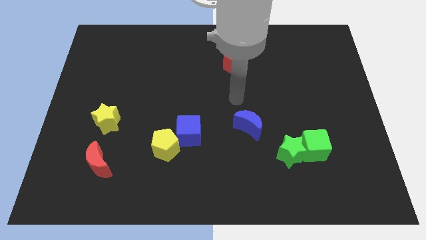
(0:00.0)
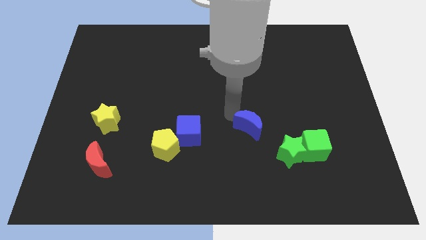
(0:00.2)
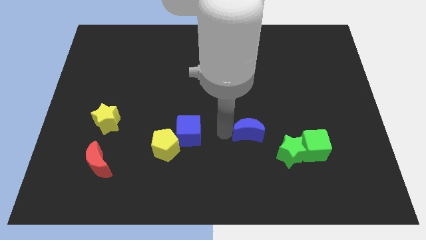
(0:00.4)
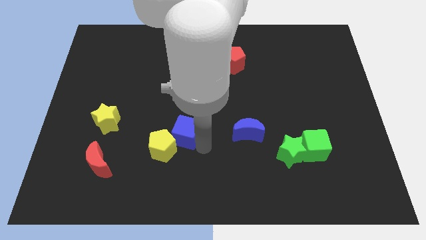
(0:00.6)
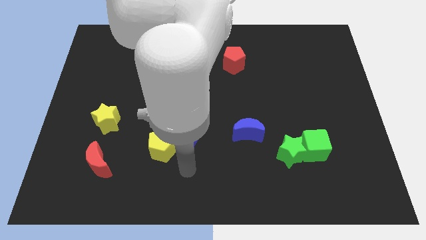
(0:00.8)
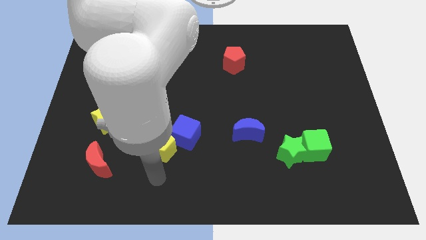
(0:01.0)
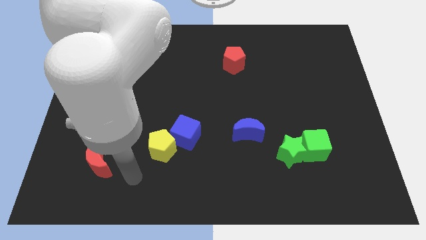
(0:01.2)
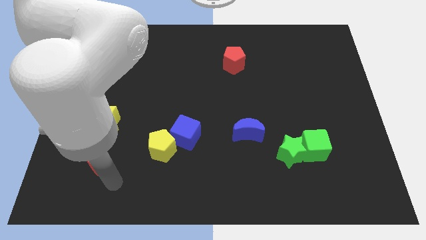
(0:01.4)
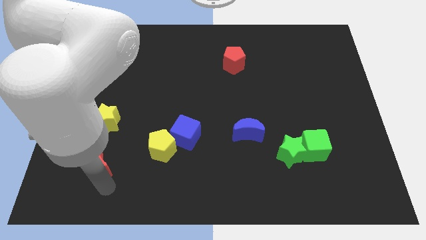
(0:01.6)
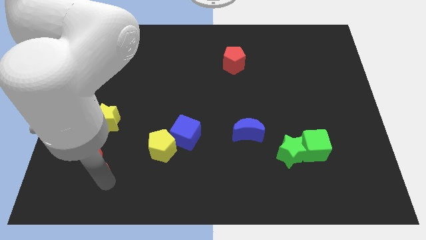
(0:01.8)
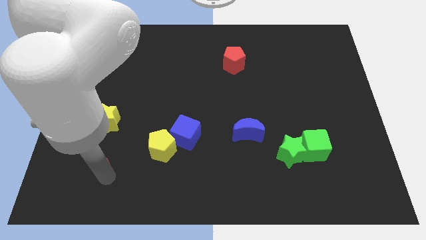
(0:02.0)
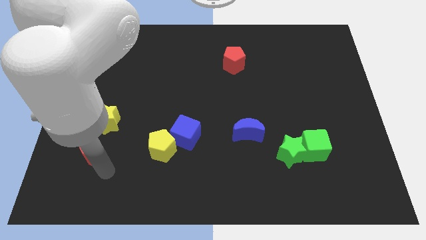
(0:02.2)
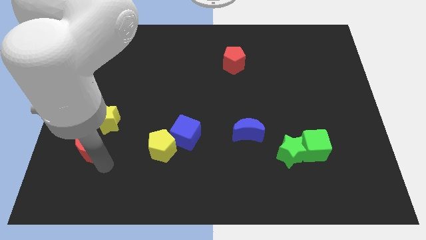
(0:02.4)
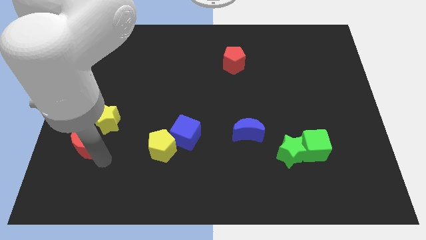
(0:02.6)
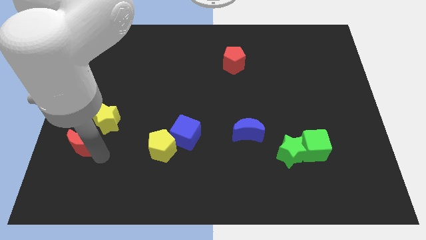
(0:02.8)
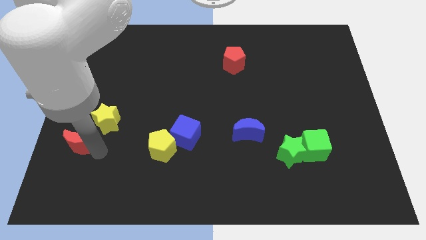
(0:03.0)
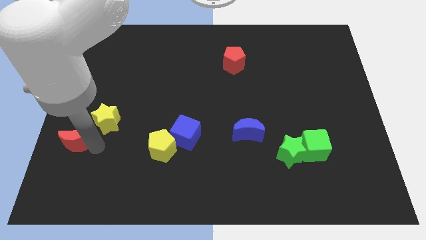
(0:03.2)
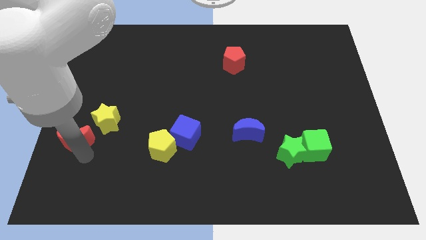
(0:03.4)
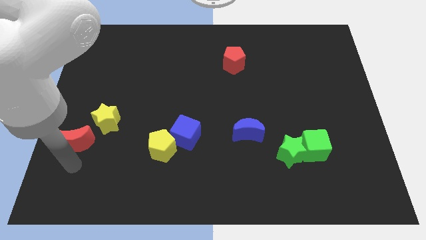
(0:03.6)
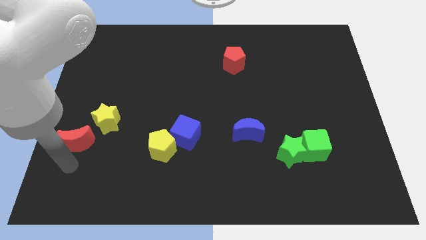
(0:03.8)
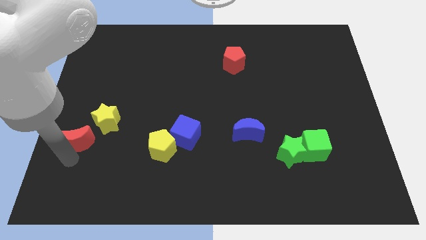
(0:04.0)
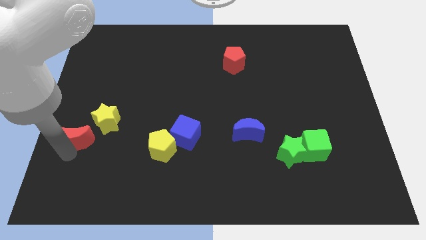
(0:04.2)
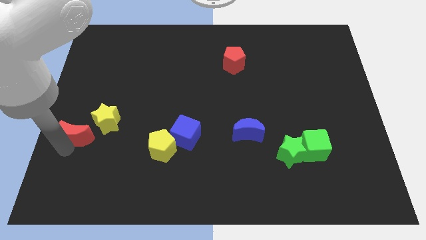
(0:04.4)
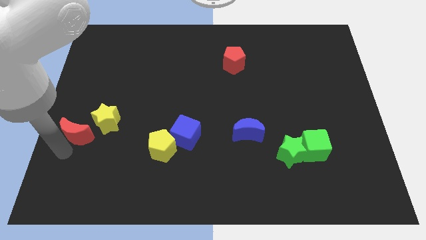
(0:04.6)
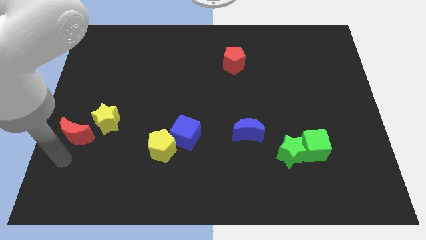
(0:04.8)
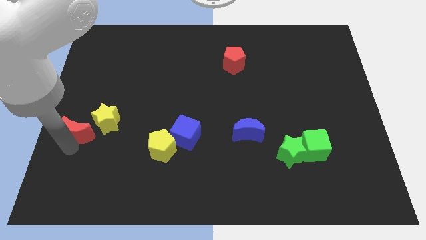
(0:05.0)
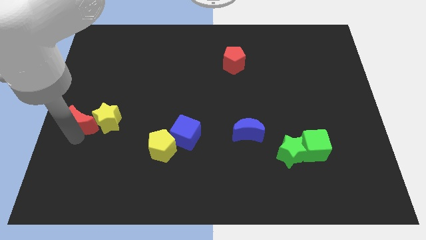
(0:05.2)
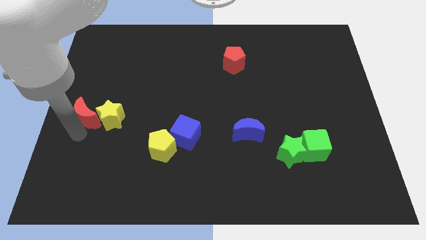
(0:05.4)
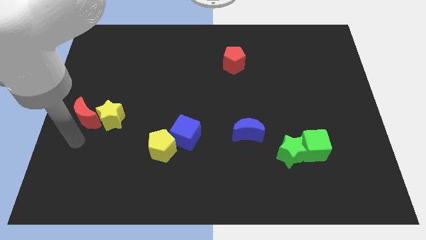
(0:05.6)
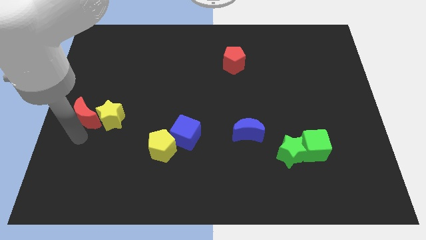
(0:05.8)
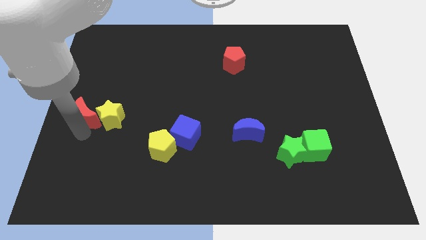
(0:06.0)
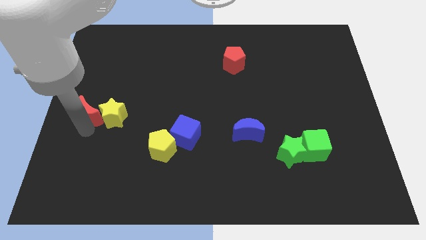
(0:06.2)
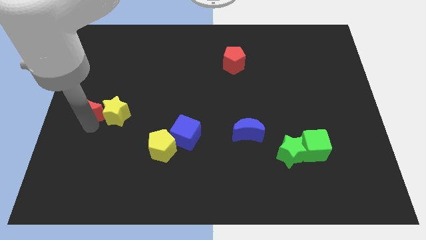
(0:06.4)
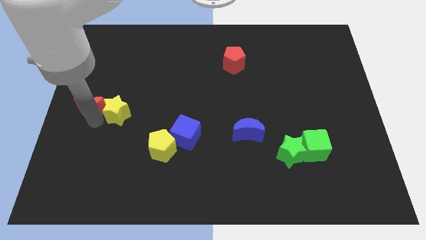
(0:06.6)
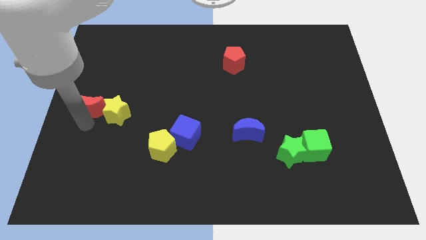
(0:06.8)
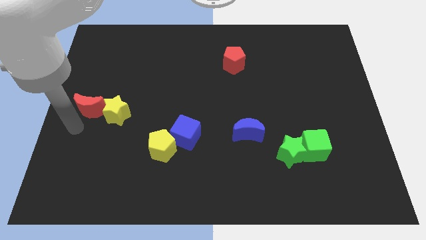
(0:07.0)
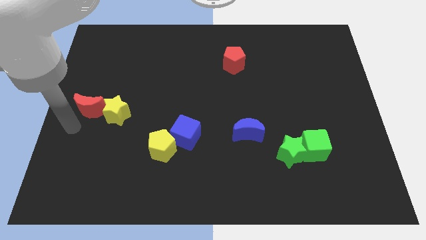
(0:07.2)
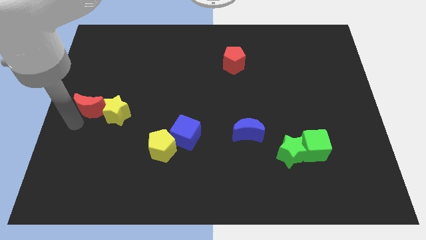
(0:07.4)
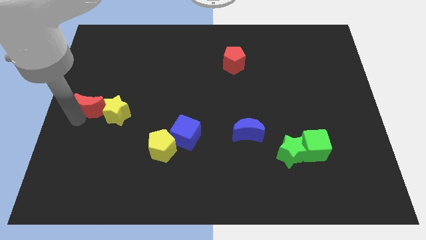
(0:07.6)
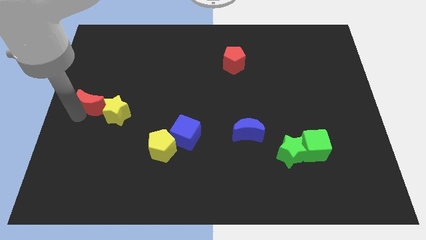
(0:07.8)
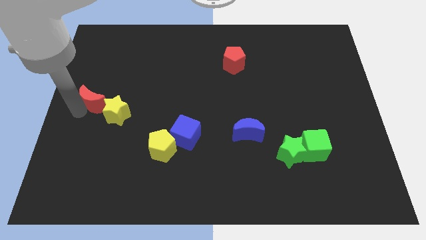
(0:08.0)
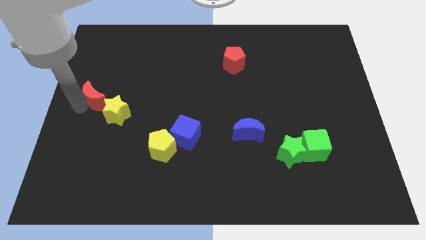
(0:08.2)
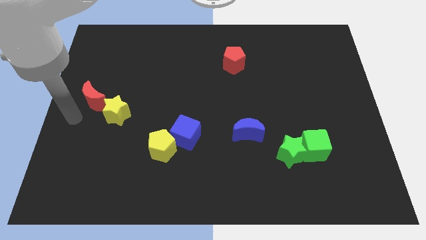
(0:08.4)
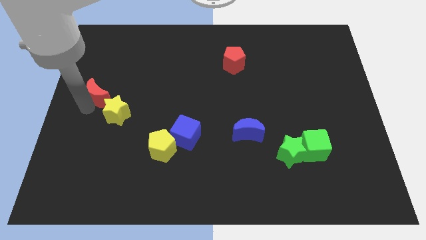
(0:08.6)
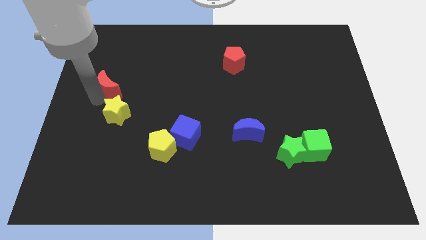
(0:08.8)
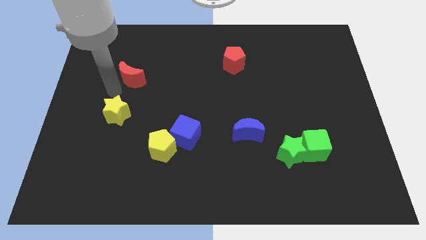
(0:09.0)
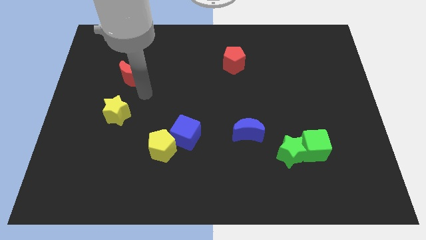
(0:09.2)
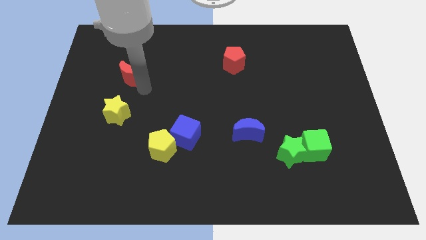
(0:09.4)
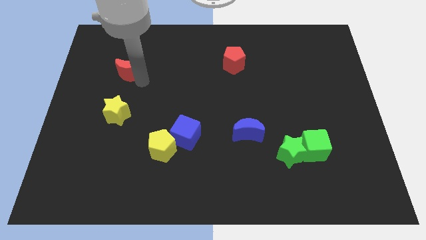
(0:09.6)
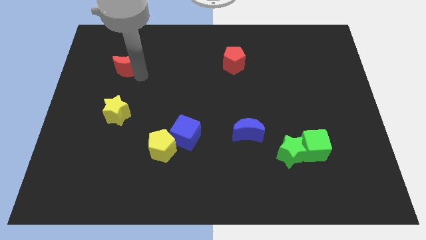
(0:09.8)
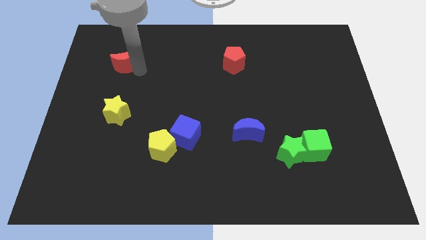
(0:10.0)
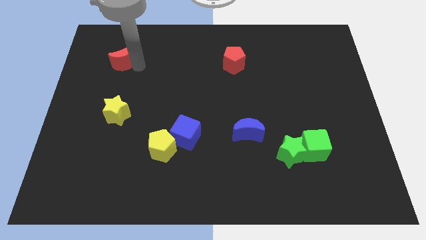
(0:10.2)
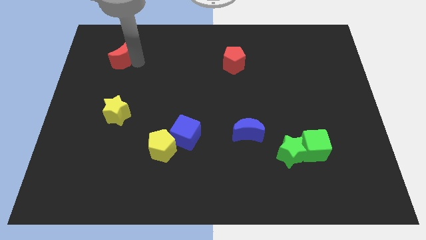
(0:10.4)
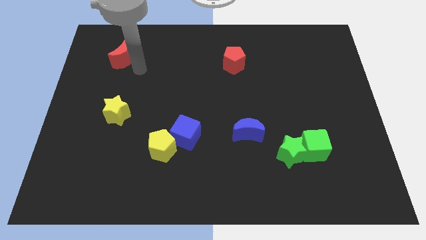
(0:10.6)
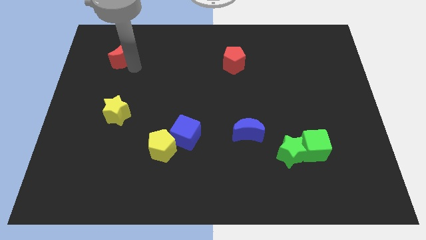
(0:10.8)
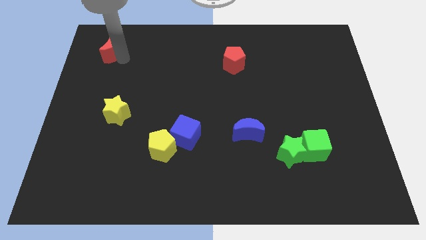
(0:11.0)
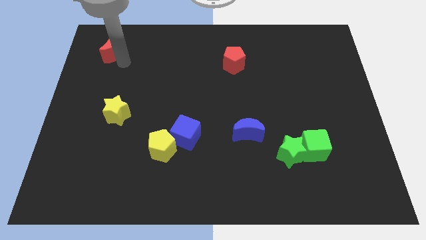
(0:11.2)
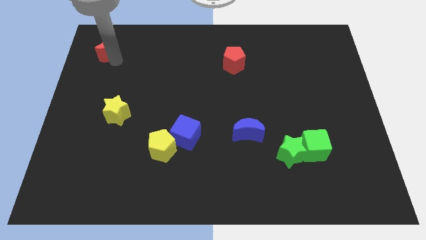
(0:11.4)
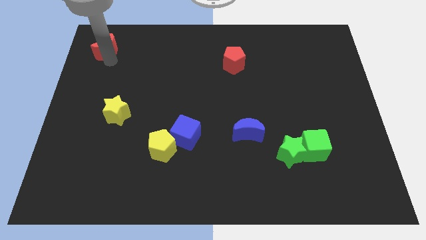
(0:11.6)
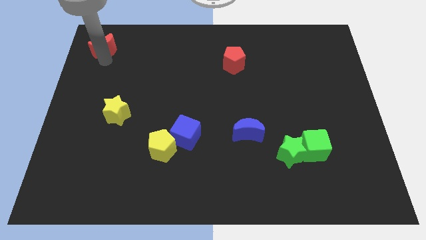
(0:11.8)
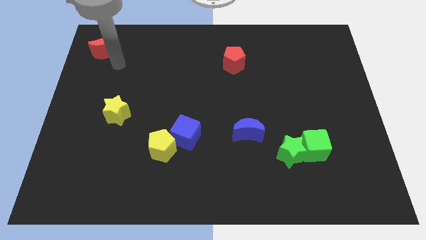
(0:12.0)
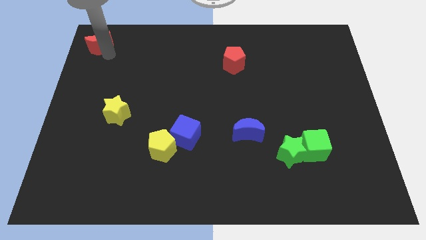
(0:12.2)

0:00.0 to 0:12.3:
slide the red moon to the upper left corner

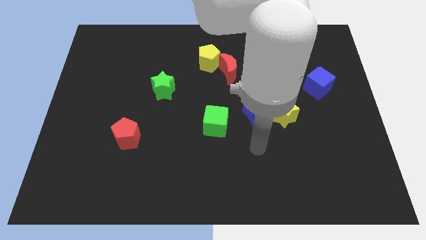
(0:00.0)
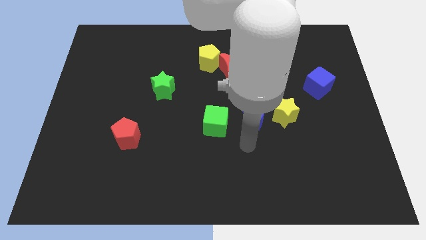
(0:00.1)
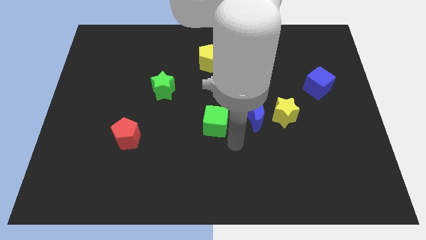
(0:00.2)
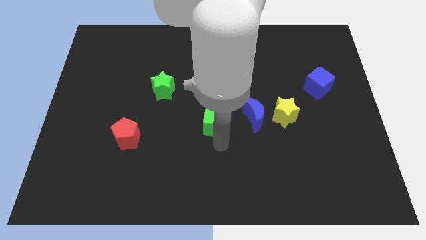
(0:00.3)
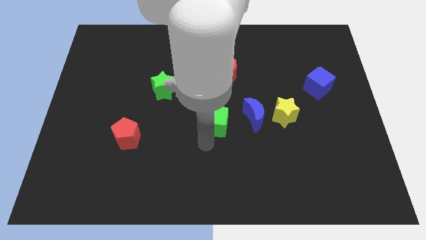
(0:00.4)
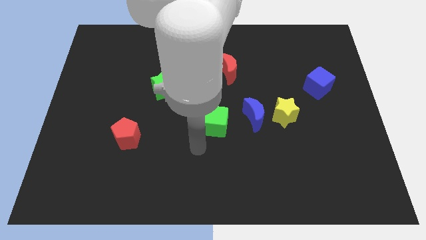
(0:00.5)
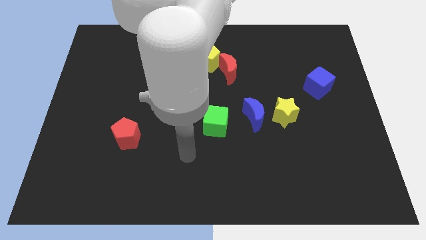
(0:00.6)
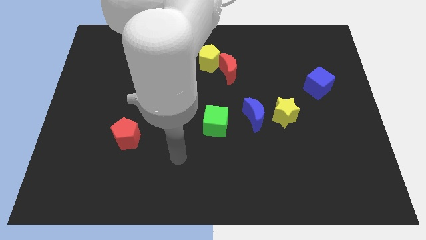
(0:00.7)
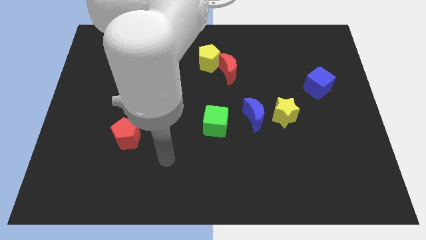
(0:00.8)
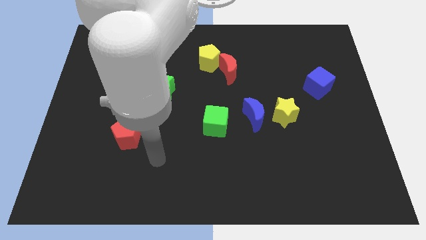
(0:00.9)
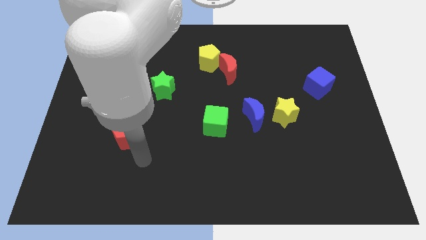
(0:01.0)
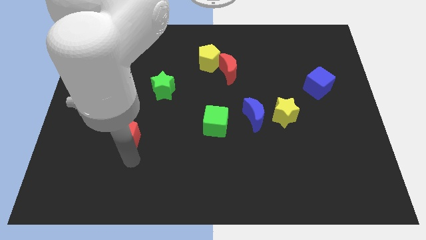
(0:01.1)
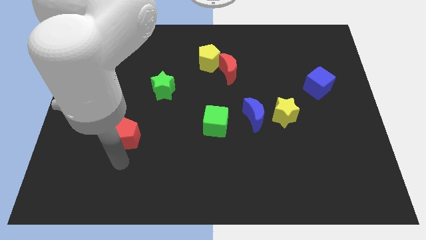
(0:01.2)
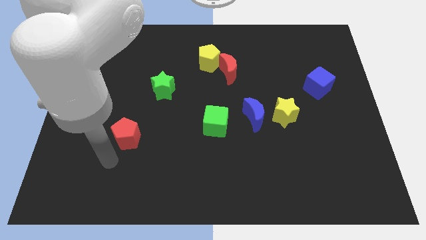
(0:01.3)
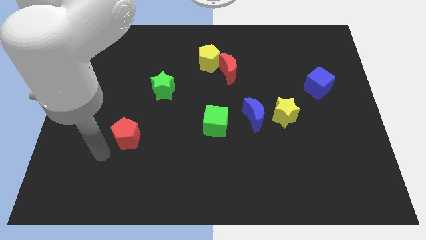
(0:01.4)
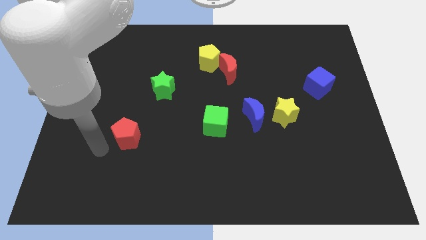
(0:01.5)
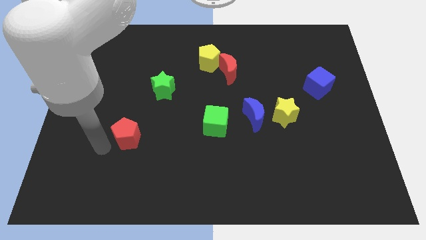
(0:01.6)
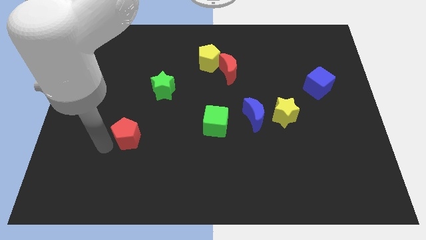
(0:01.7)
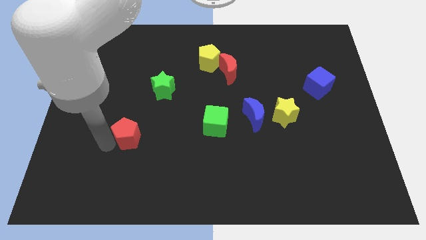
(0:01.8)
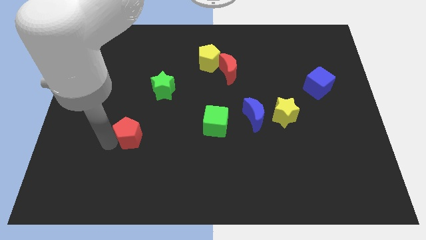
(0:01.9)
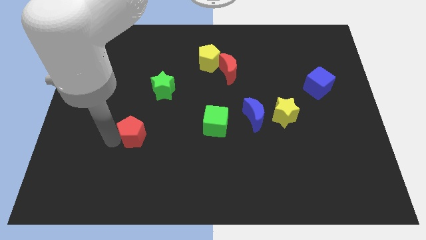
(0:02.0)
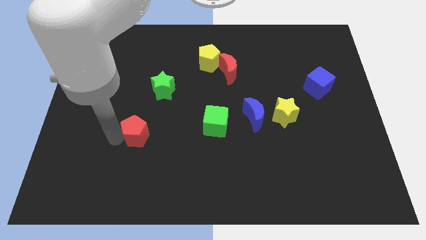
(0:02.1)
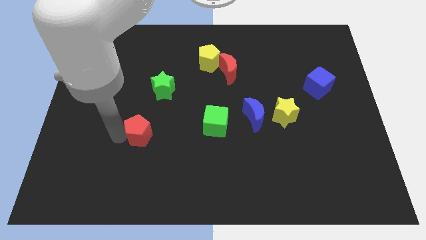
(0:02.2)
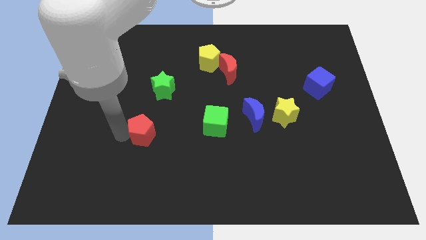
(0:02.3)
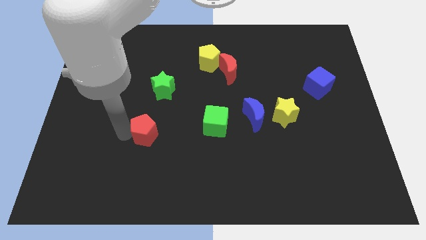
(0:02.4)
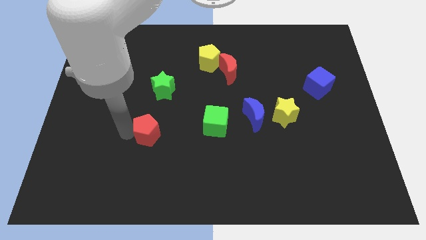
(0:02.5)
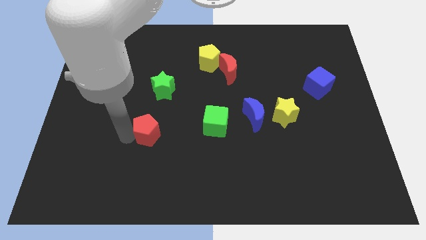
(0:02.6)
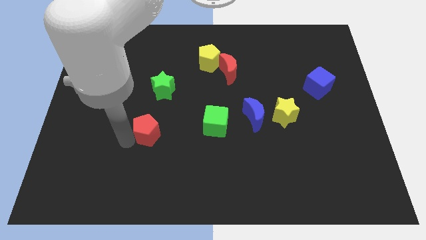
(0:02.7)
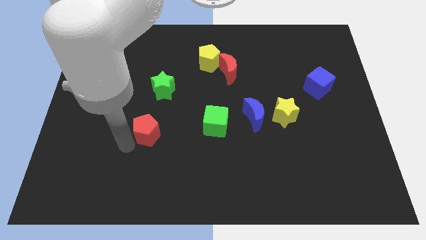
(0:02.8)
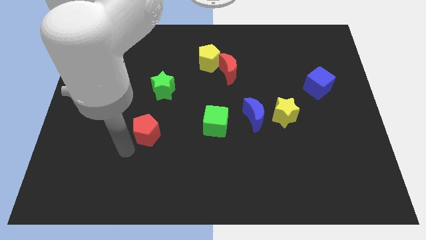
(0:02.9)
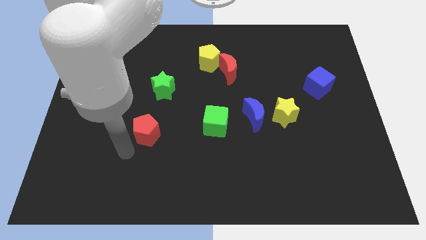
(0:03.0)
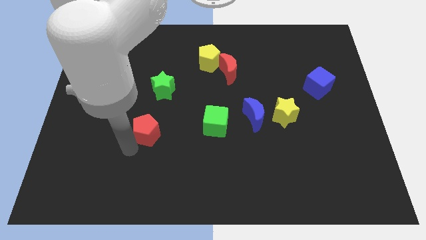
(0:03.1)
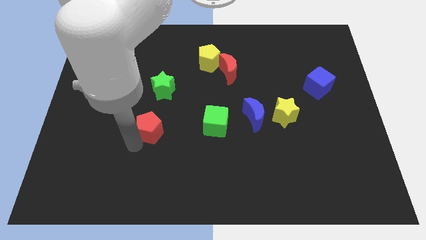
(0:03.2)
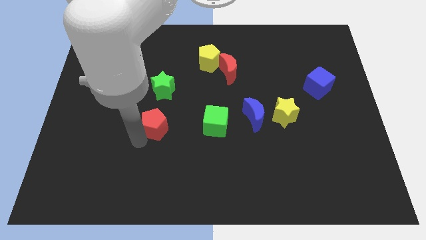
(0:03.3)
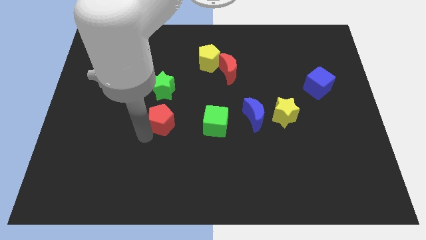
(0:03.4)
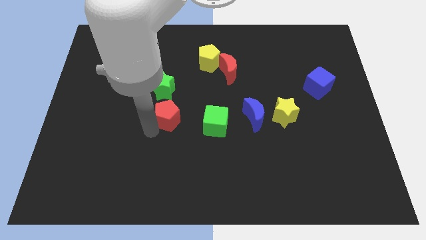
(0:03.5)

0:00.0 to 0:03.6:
slide the red pentagon to the middle of the board
